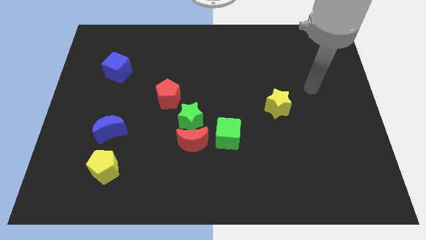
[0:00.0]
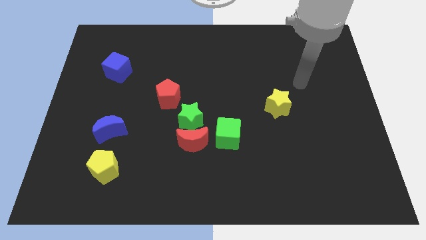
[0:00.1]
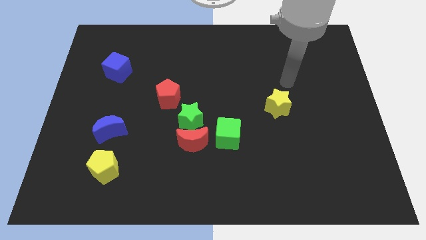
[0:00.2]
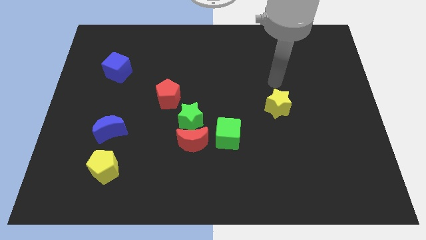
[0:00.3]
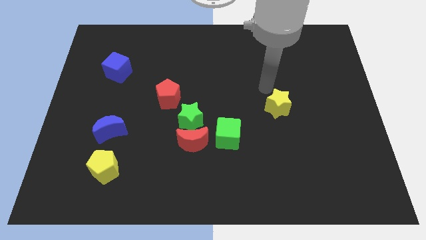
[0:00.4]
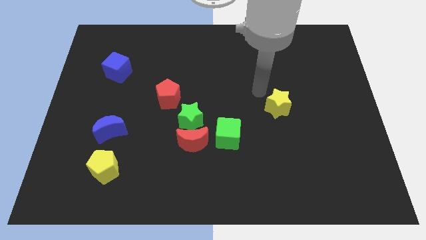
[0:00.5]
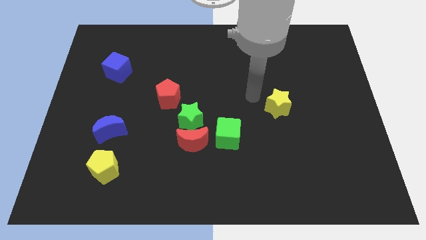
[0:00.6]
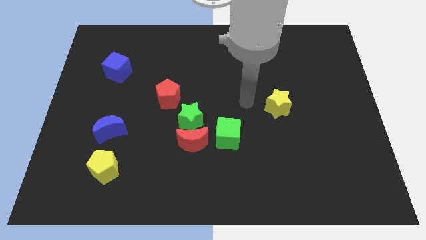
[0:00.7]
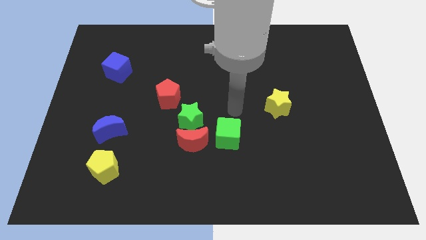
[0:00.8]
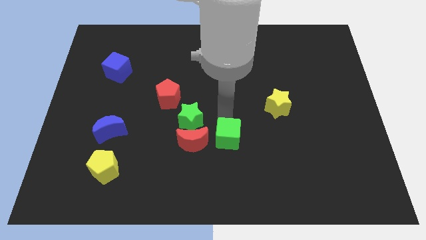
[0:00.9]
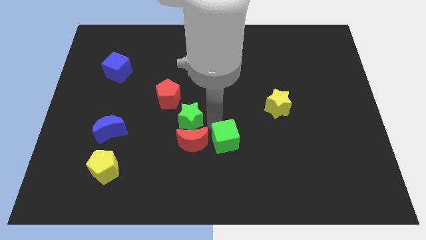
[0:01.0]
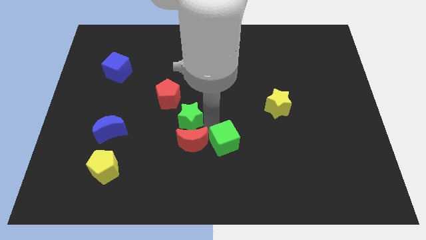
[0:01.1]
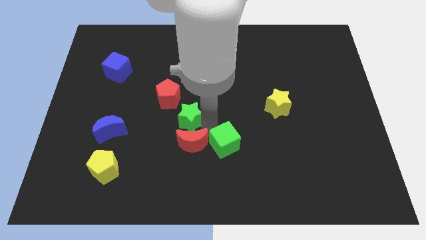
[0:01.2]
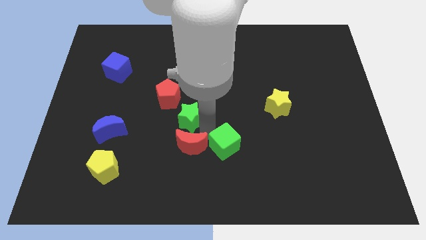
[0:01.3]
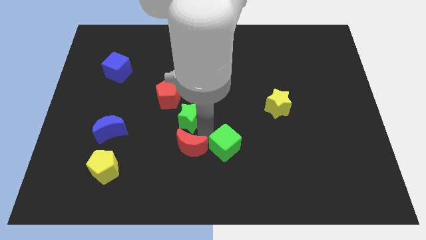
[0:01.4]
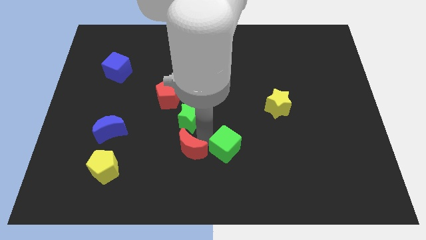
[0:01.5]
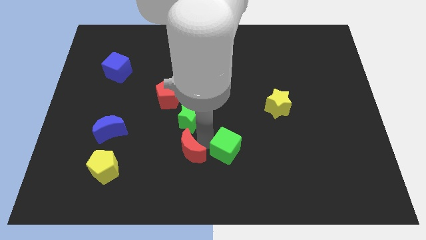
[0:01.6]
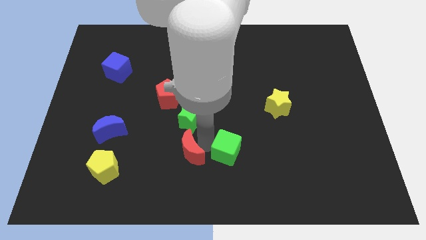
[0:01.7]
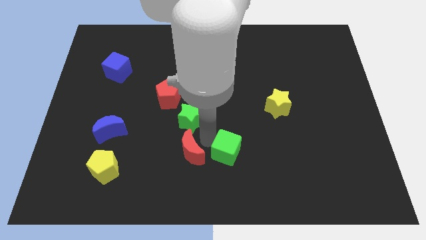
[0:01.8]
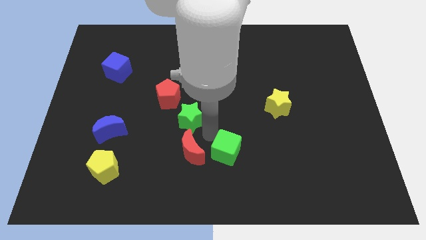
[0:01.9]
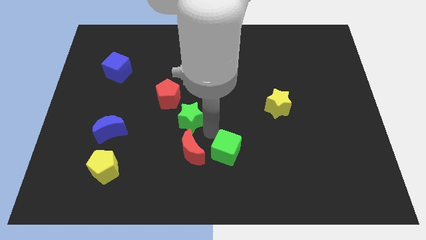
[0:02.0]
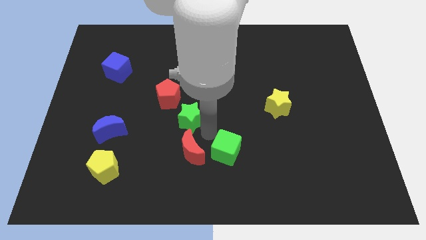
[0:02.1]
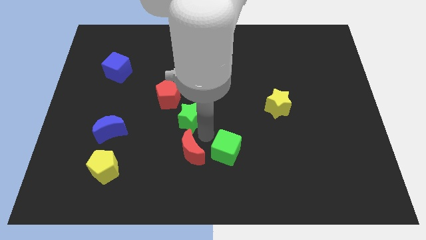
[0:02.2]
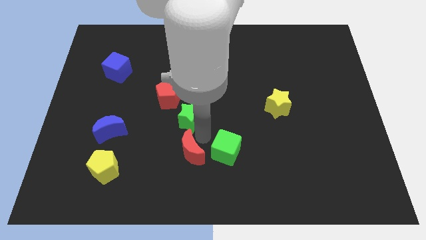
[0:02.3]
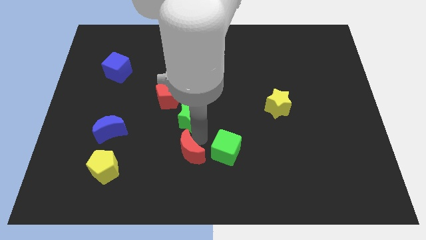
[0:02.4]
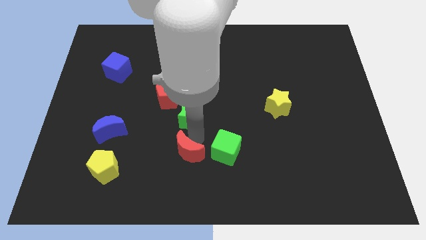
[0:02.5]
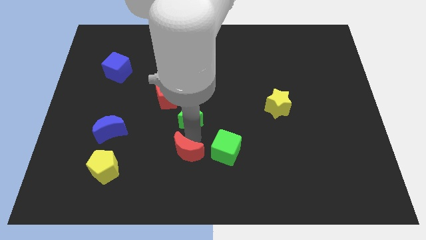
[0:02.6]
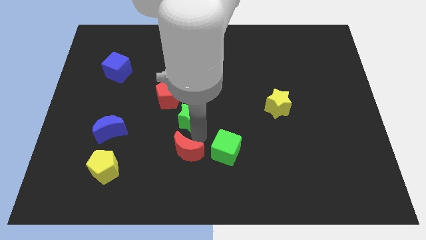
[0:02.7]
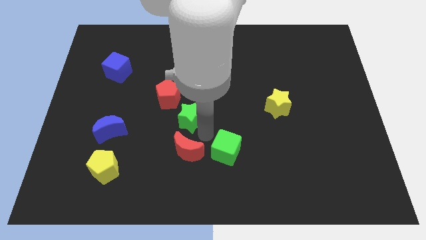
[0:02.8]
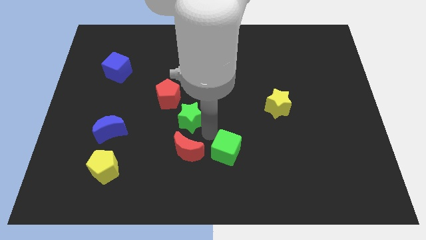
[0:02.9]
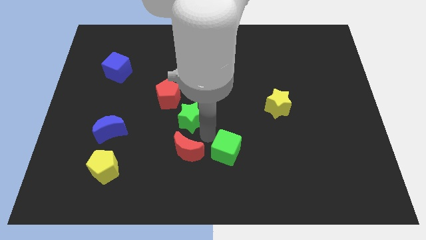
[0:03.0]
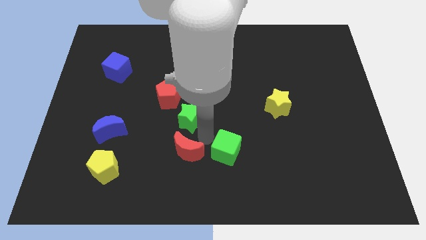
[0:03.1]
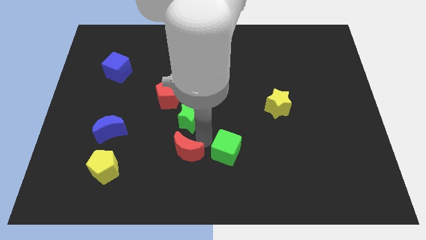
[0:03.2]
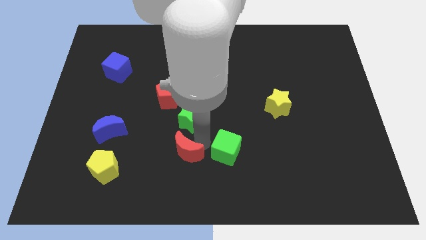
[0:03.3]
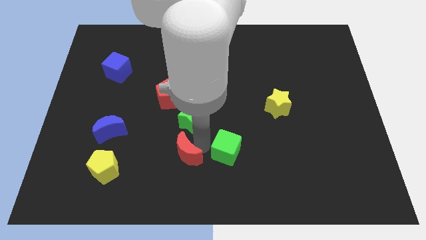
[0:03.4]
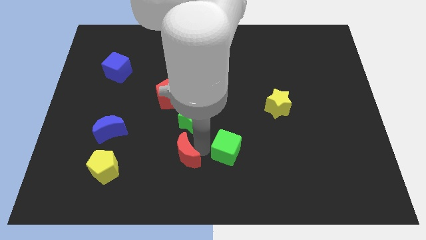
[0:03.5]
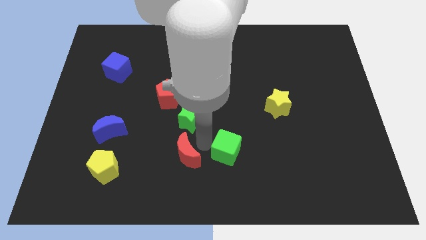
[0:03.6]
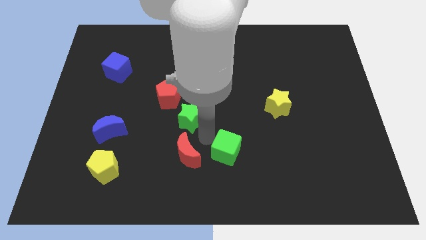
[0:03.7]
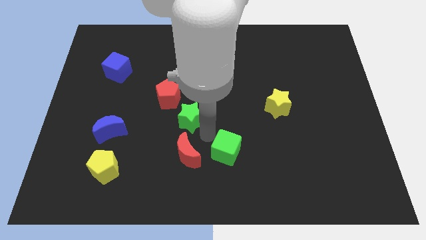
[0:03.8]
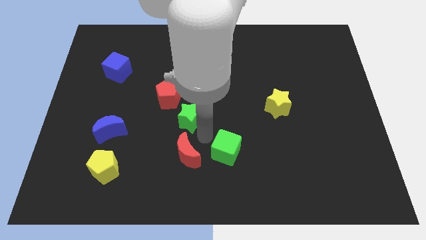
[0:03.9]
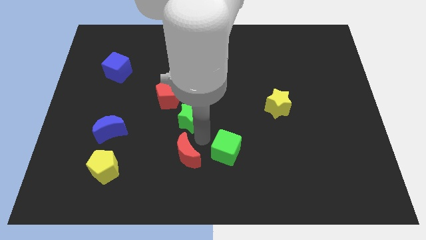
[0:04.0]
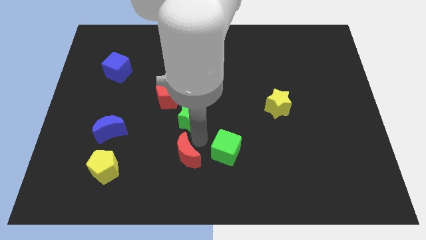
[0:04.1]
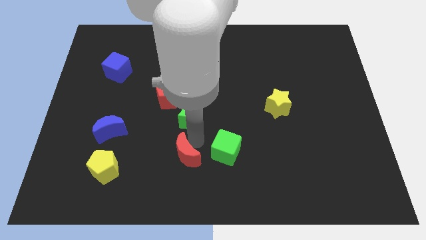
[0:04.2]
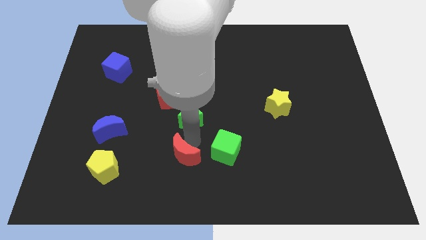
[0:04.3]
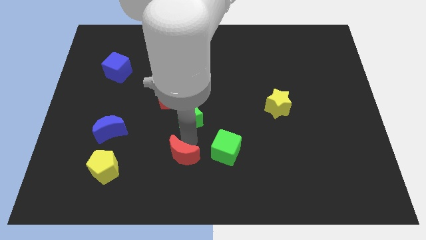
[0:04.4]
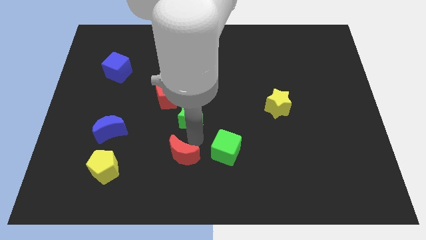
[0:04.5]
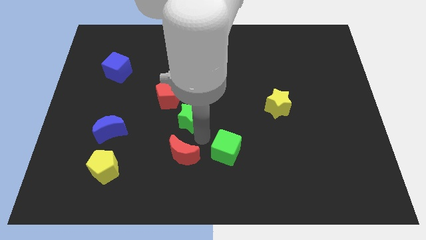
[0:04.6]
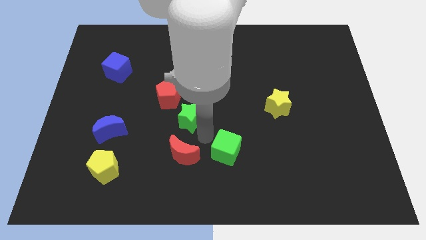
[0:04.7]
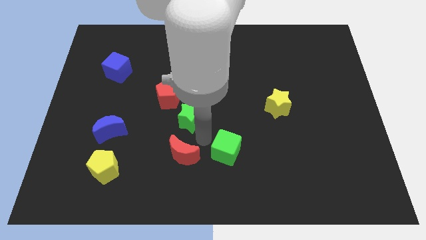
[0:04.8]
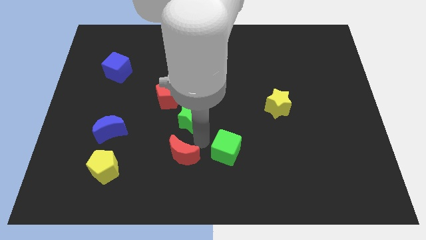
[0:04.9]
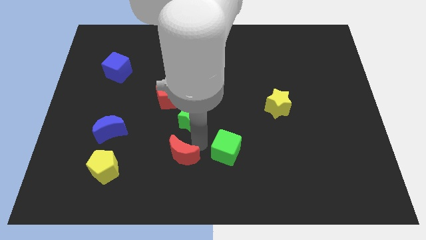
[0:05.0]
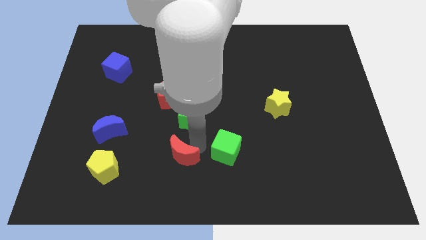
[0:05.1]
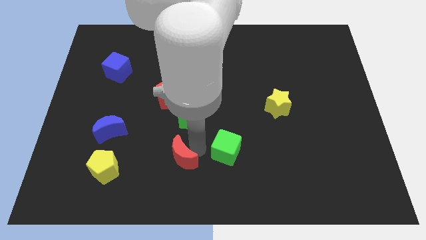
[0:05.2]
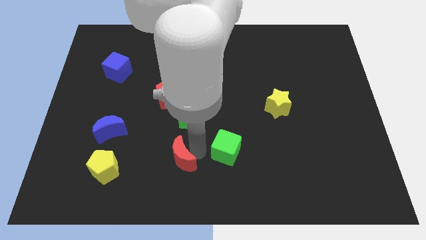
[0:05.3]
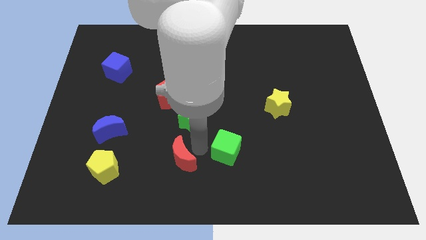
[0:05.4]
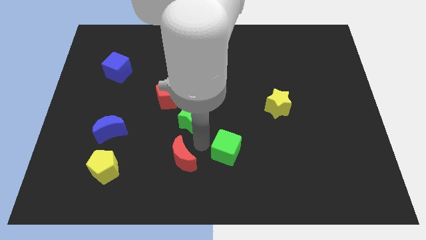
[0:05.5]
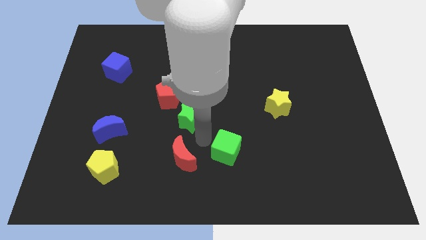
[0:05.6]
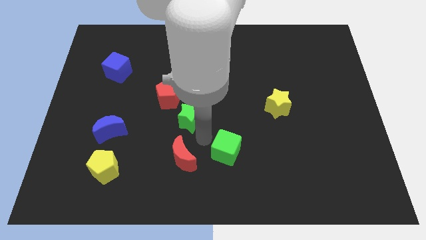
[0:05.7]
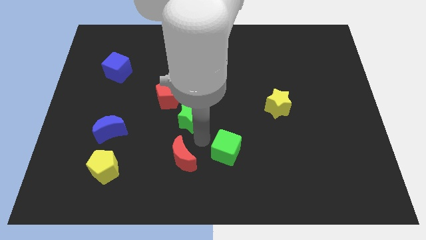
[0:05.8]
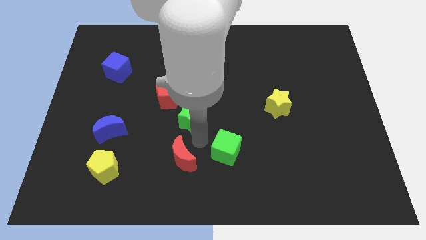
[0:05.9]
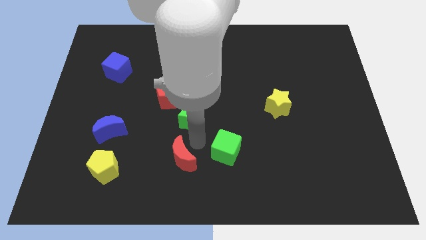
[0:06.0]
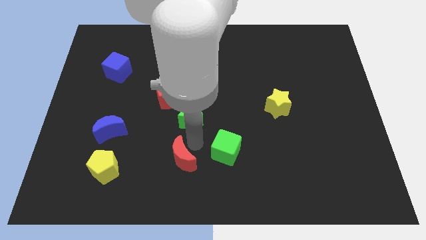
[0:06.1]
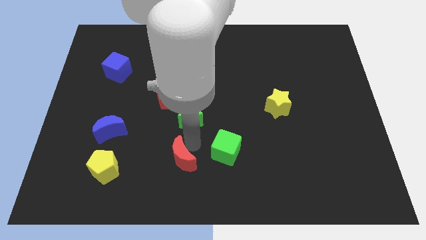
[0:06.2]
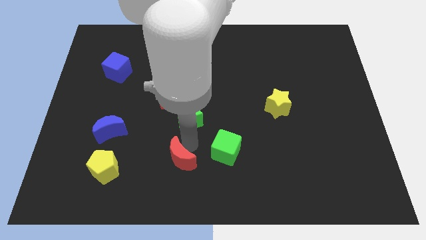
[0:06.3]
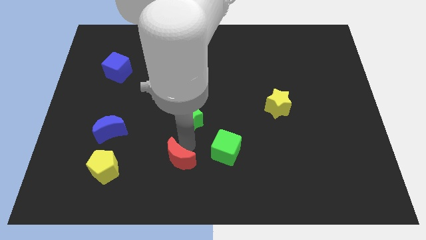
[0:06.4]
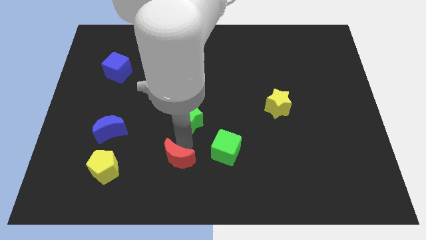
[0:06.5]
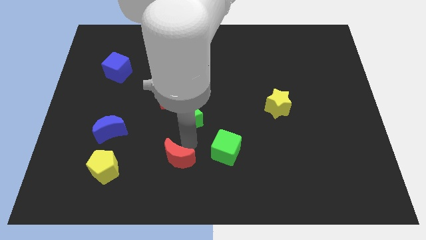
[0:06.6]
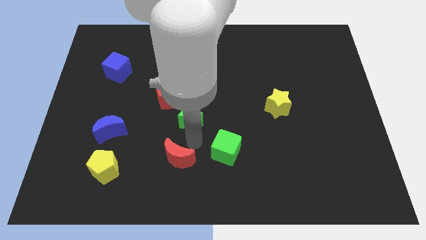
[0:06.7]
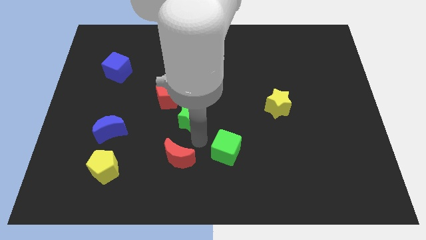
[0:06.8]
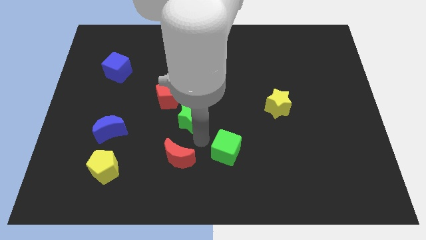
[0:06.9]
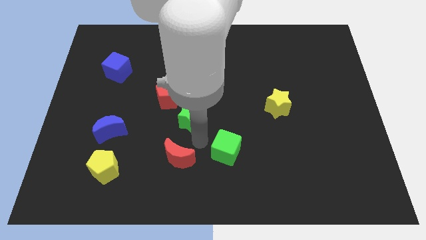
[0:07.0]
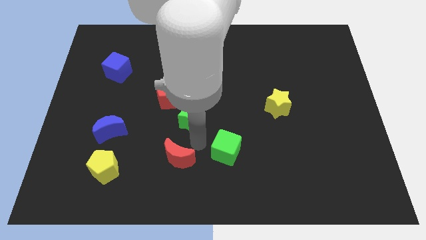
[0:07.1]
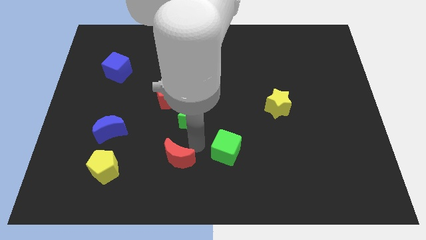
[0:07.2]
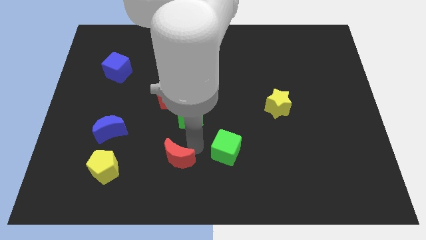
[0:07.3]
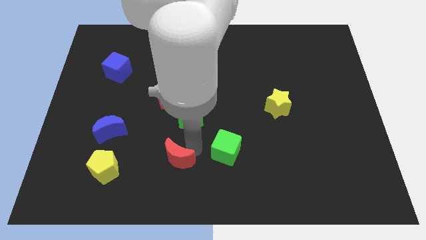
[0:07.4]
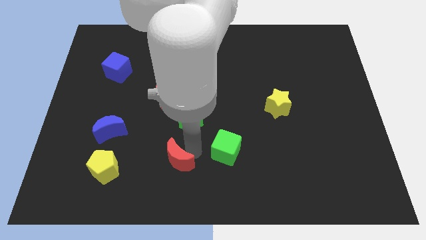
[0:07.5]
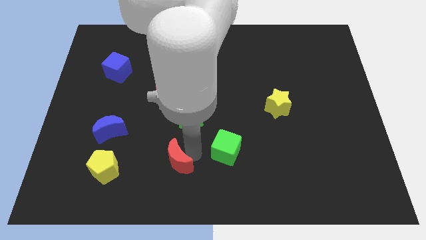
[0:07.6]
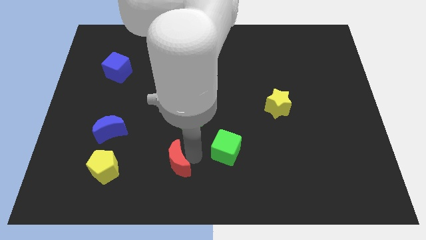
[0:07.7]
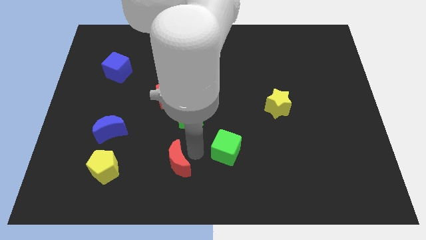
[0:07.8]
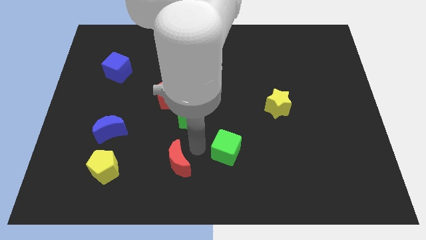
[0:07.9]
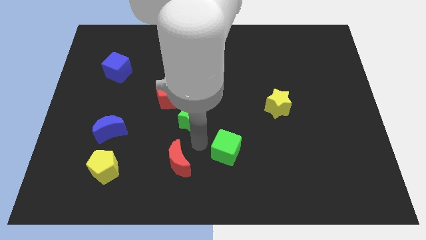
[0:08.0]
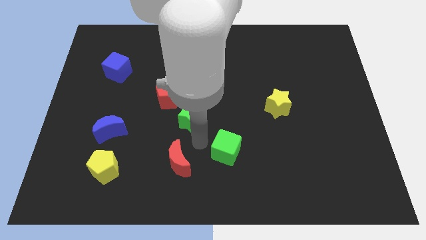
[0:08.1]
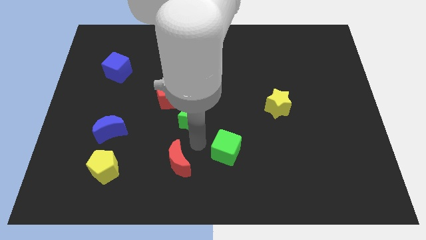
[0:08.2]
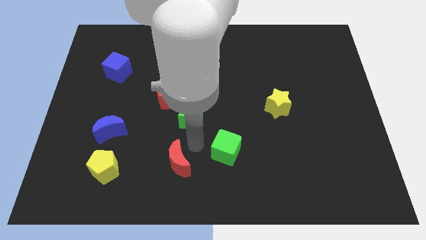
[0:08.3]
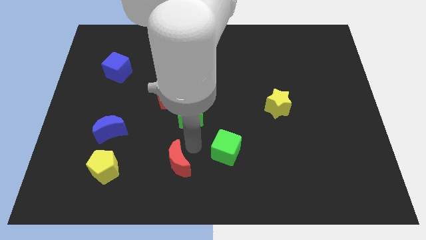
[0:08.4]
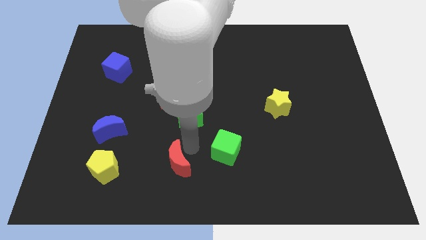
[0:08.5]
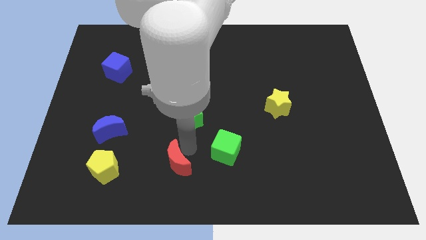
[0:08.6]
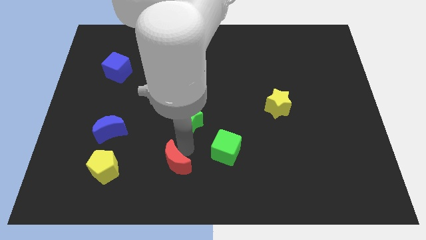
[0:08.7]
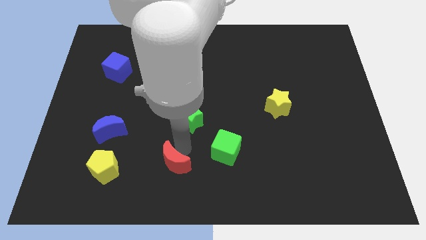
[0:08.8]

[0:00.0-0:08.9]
pull the red moon apart from the green star and green cube

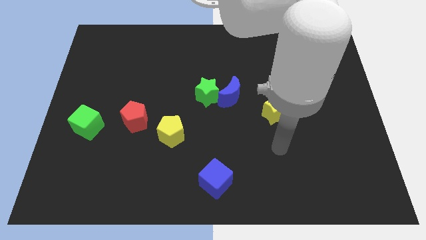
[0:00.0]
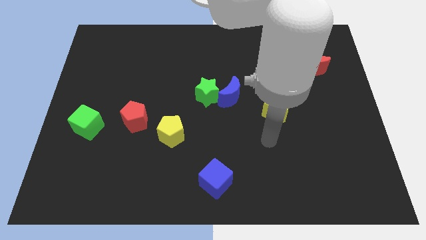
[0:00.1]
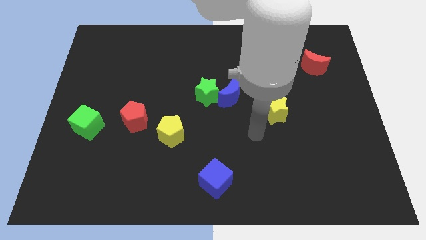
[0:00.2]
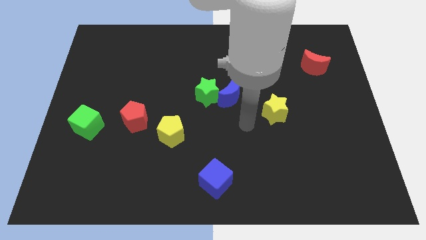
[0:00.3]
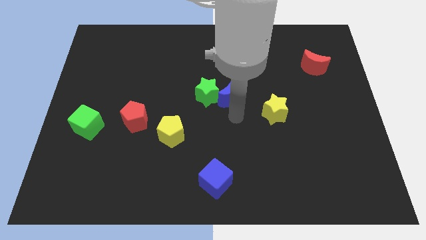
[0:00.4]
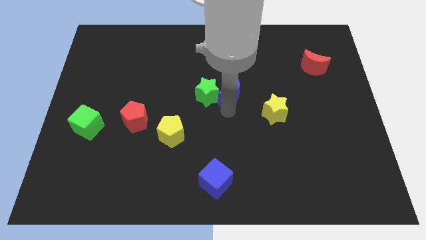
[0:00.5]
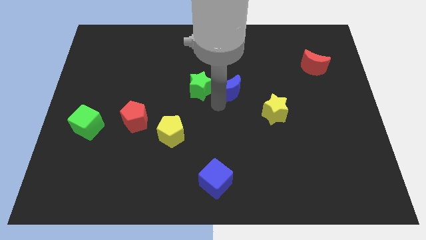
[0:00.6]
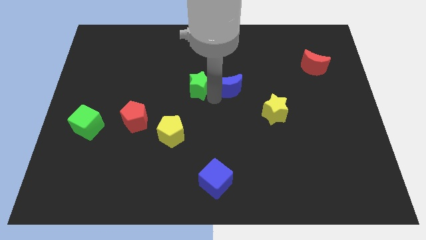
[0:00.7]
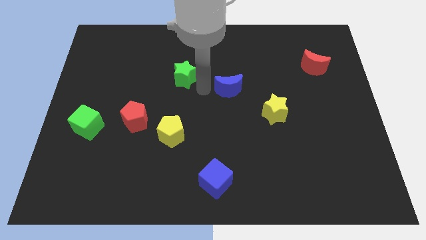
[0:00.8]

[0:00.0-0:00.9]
move the blue moon away from the green star
